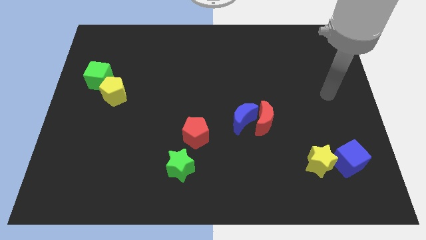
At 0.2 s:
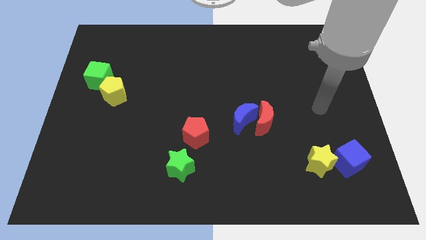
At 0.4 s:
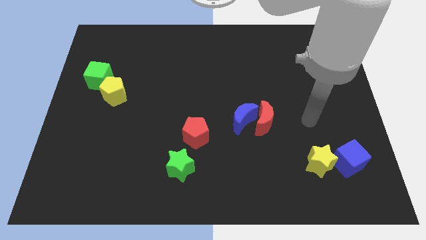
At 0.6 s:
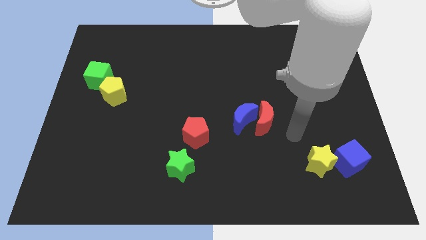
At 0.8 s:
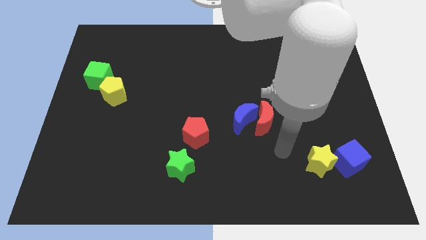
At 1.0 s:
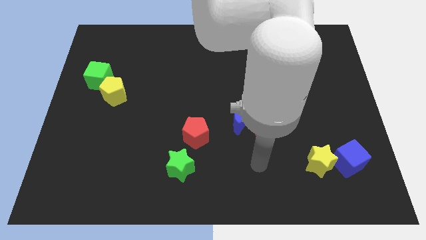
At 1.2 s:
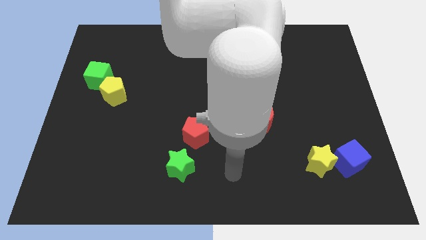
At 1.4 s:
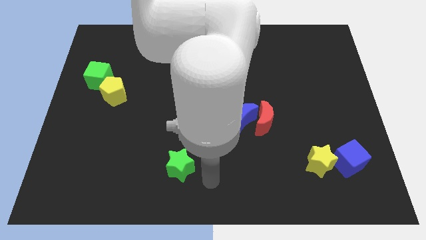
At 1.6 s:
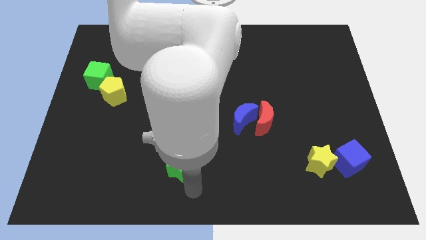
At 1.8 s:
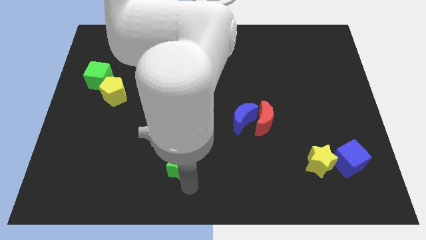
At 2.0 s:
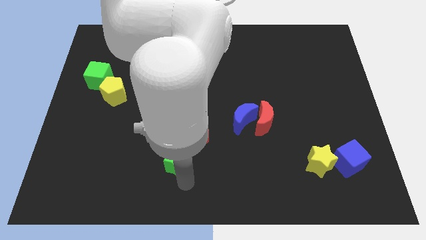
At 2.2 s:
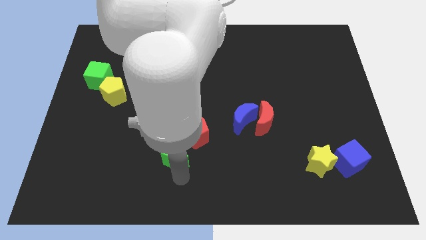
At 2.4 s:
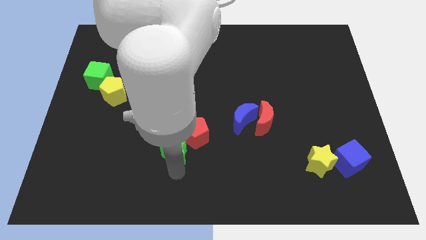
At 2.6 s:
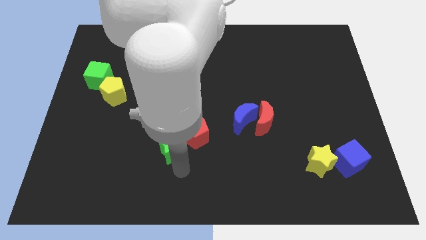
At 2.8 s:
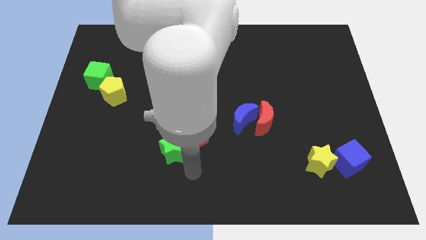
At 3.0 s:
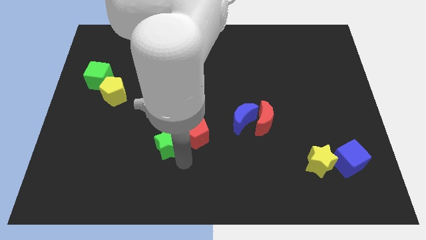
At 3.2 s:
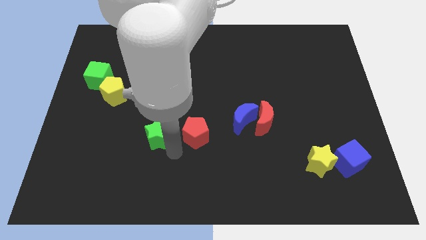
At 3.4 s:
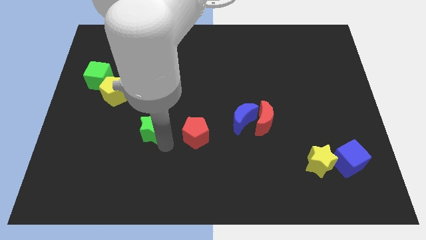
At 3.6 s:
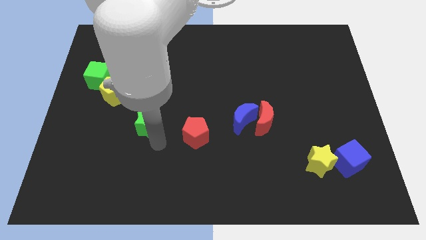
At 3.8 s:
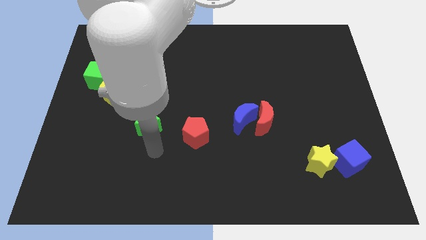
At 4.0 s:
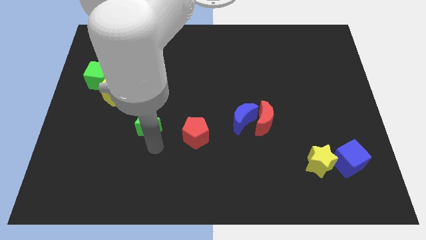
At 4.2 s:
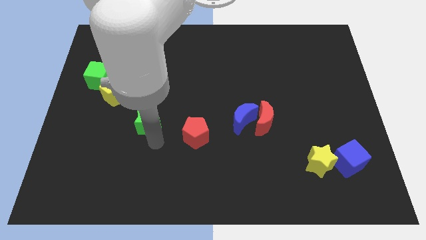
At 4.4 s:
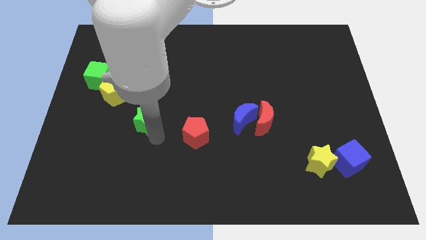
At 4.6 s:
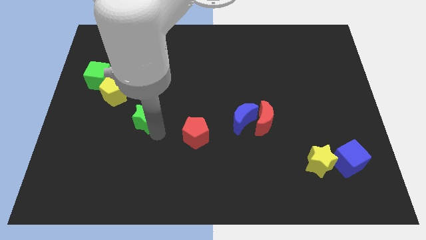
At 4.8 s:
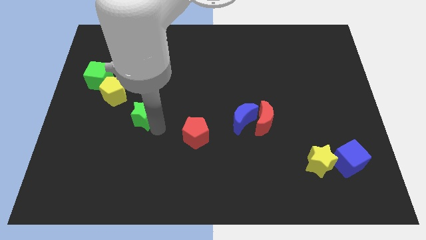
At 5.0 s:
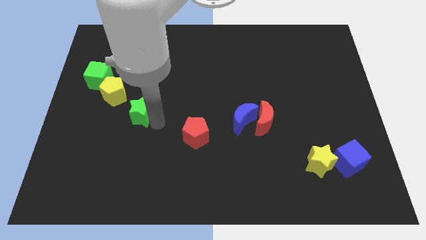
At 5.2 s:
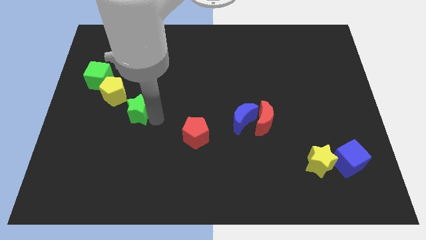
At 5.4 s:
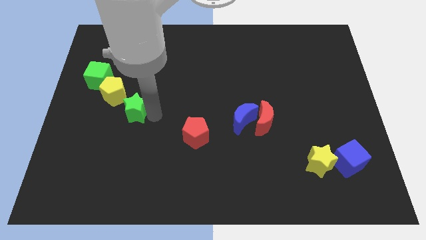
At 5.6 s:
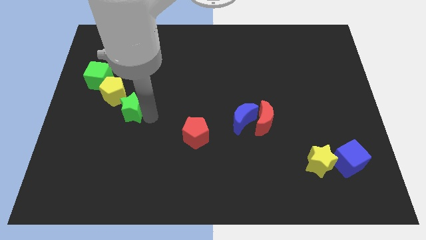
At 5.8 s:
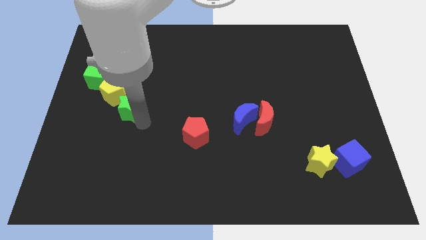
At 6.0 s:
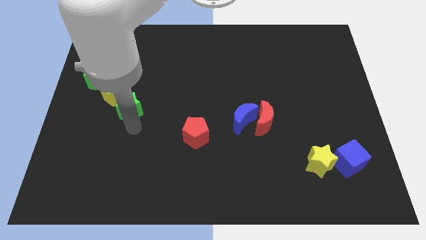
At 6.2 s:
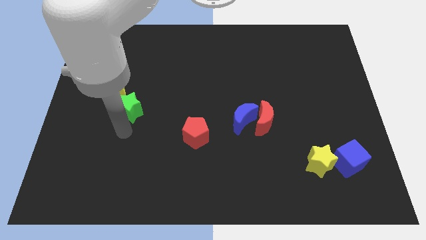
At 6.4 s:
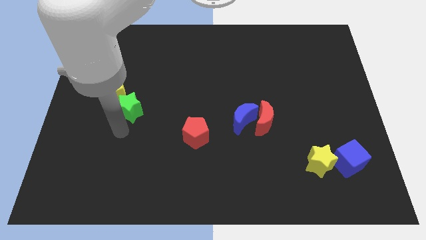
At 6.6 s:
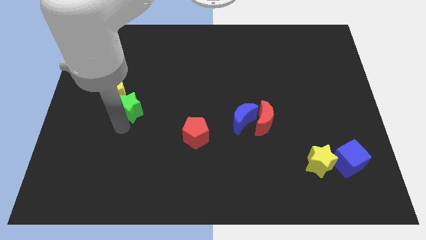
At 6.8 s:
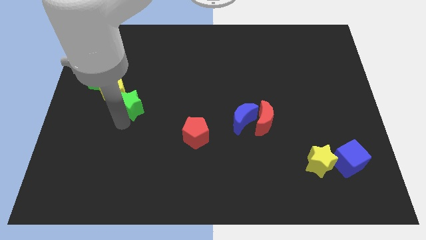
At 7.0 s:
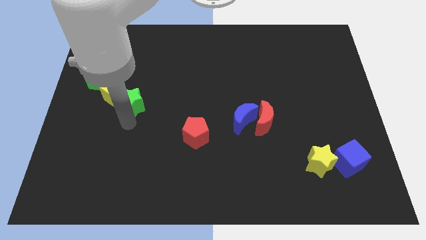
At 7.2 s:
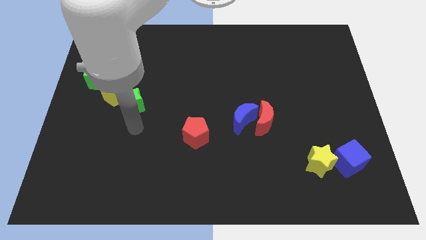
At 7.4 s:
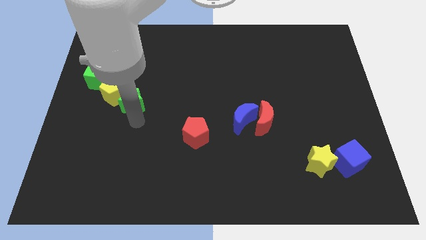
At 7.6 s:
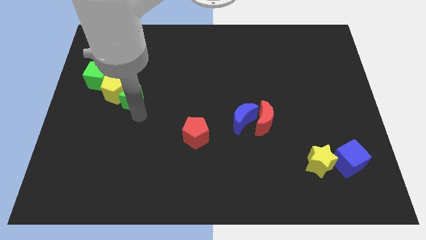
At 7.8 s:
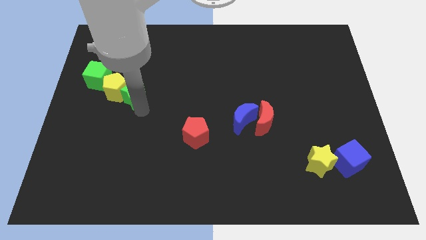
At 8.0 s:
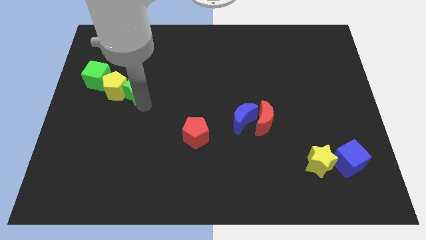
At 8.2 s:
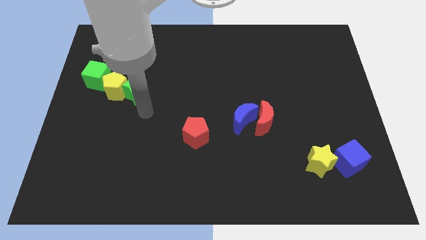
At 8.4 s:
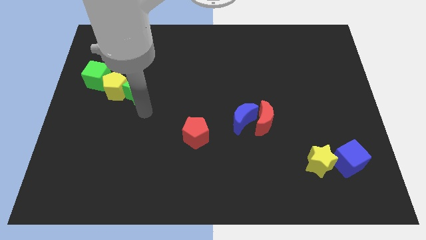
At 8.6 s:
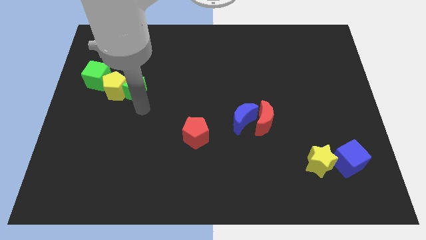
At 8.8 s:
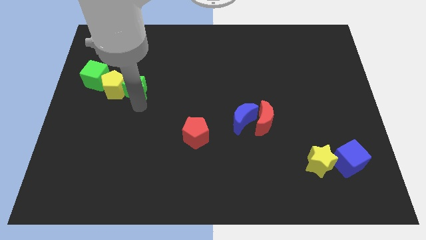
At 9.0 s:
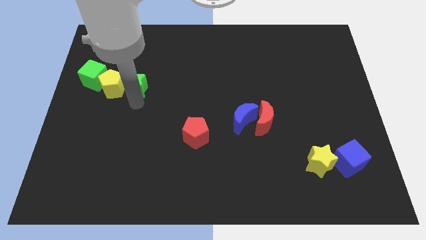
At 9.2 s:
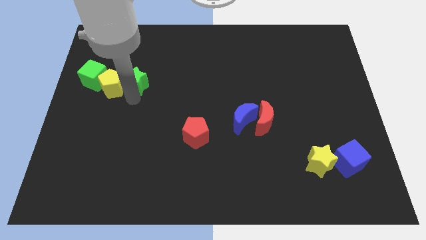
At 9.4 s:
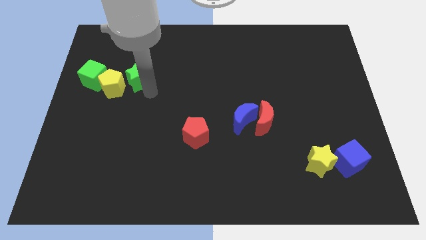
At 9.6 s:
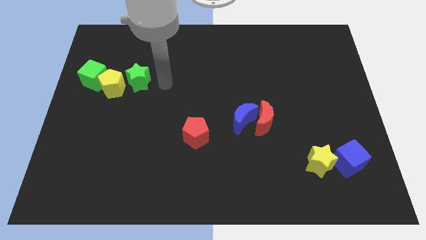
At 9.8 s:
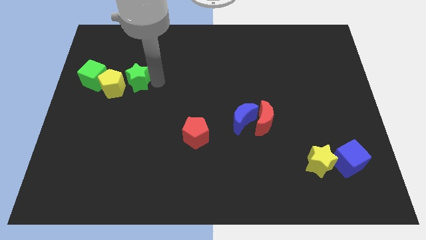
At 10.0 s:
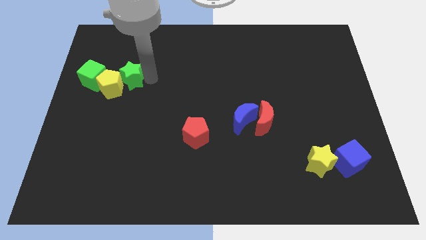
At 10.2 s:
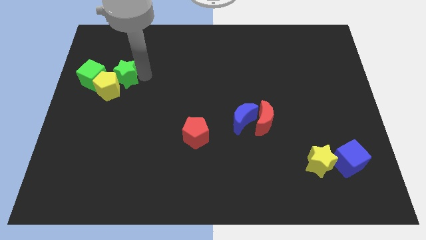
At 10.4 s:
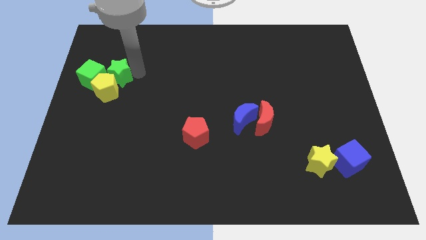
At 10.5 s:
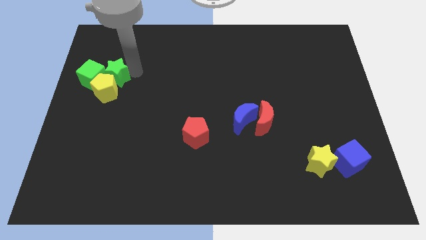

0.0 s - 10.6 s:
put the green star towards the green cube

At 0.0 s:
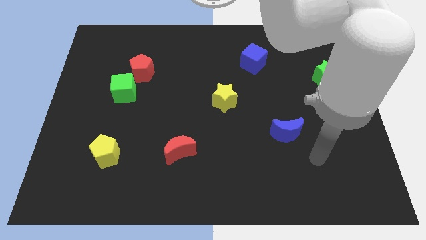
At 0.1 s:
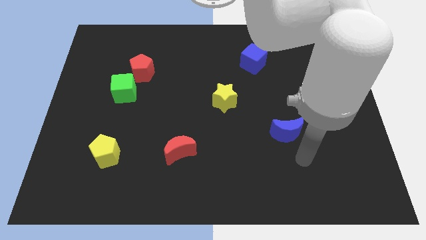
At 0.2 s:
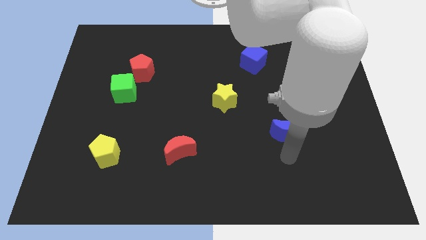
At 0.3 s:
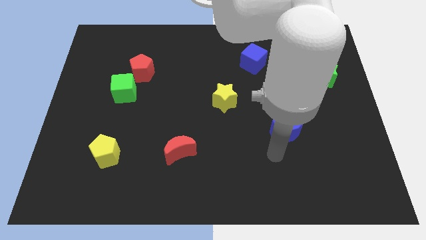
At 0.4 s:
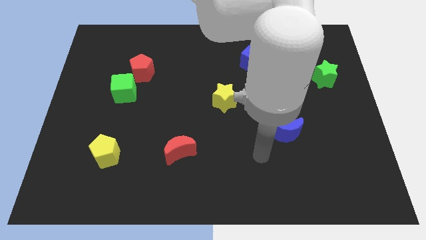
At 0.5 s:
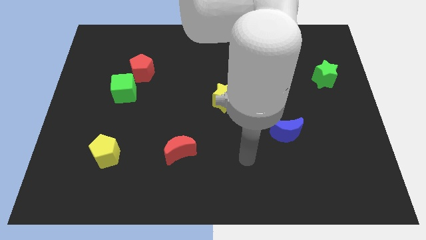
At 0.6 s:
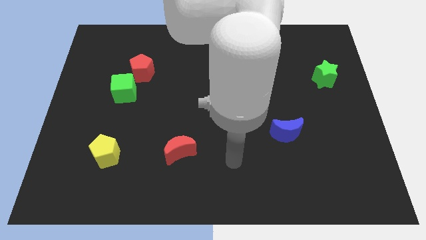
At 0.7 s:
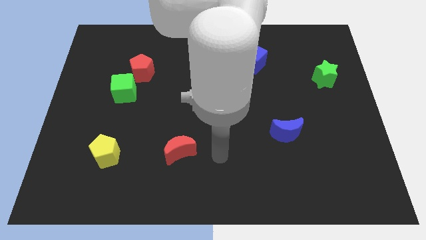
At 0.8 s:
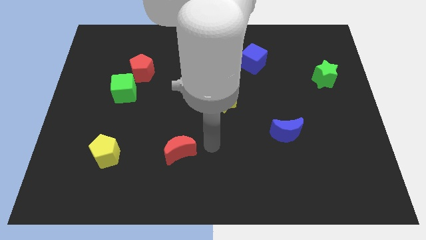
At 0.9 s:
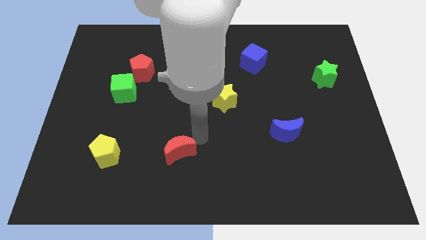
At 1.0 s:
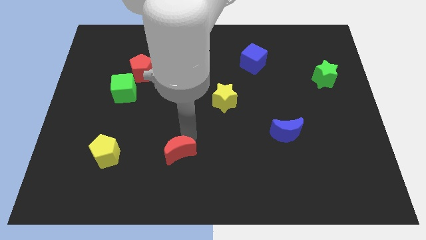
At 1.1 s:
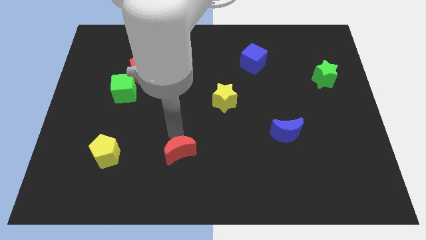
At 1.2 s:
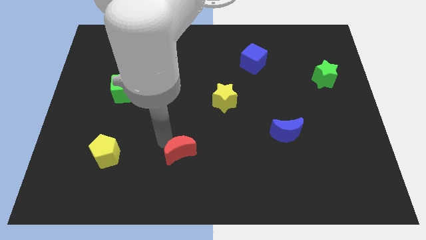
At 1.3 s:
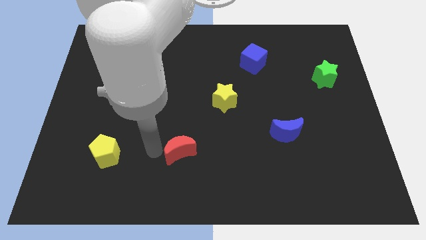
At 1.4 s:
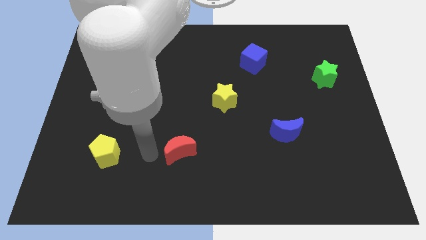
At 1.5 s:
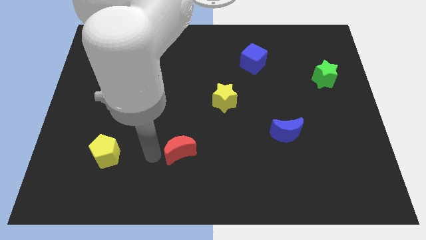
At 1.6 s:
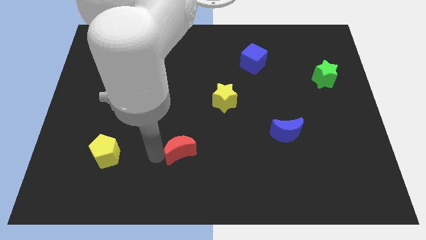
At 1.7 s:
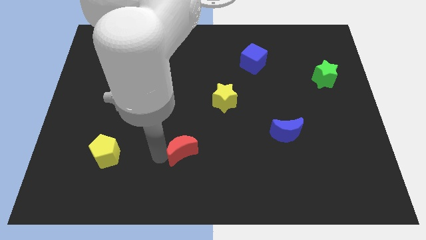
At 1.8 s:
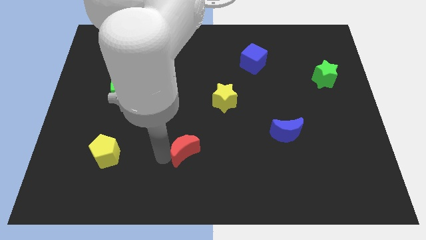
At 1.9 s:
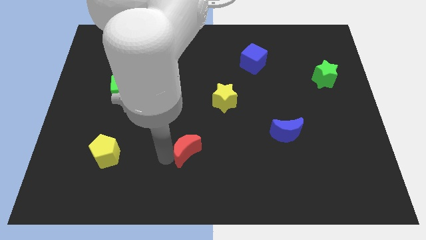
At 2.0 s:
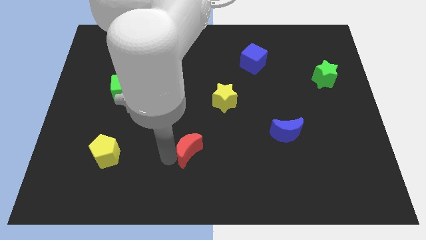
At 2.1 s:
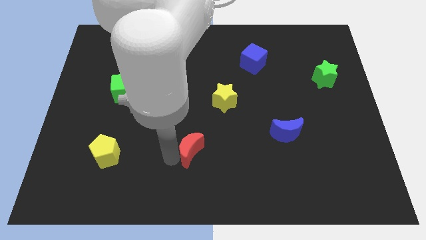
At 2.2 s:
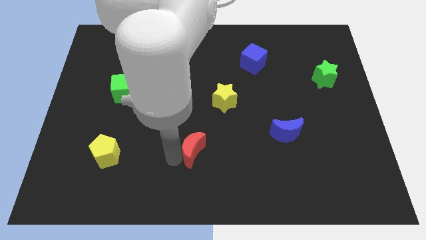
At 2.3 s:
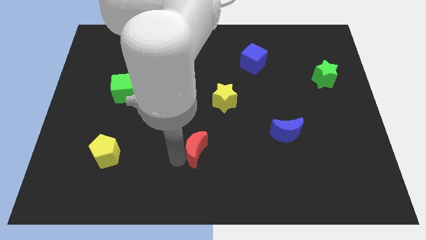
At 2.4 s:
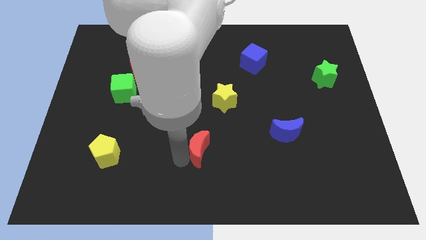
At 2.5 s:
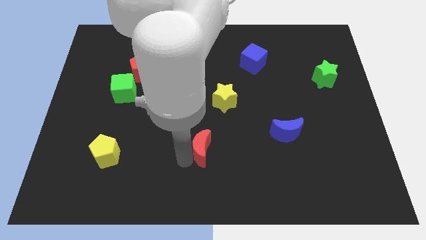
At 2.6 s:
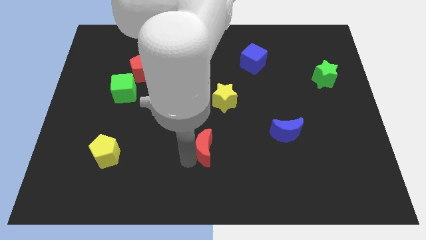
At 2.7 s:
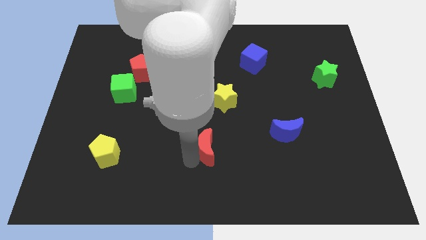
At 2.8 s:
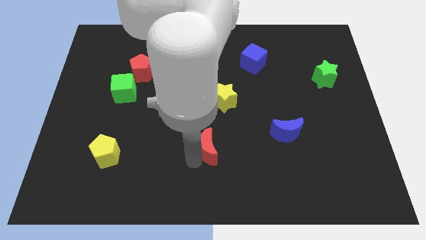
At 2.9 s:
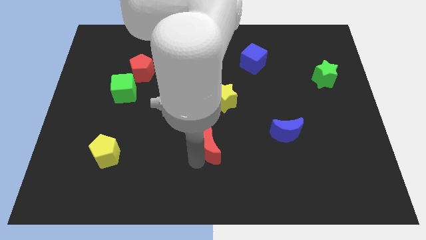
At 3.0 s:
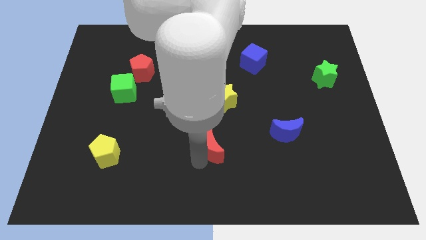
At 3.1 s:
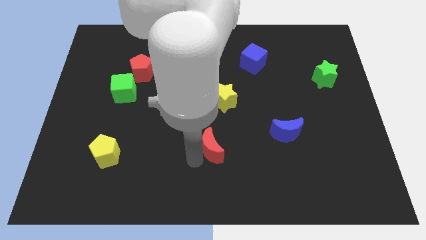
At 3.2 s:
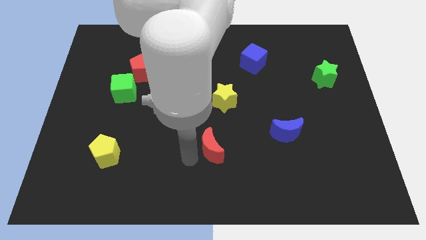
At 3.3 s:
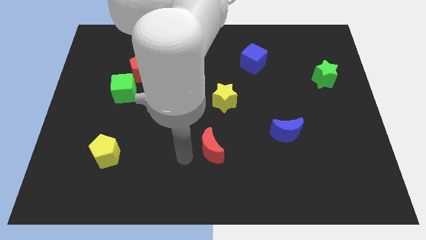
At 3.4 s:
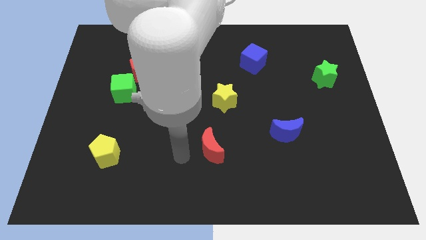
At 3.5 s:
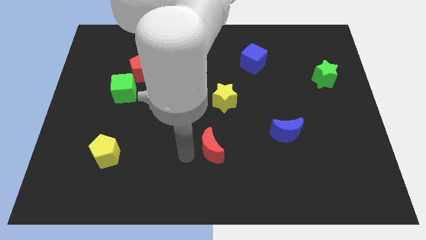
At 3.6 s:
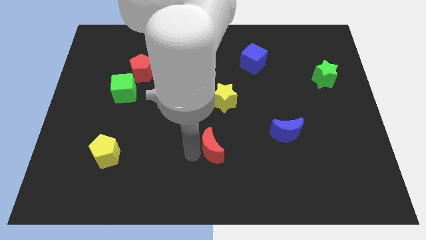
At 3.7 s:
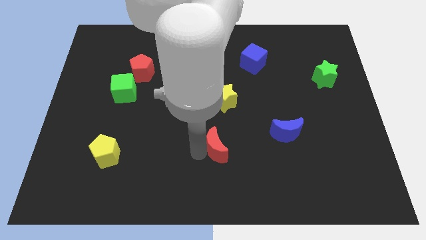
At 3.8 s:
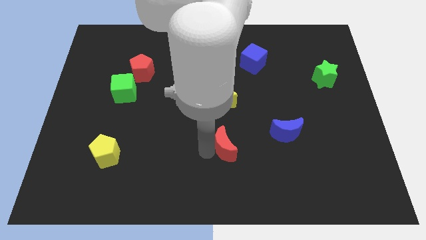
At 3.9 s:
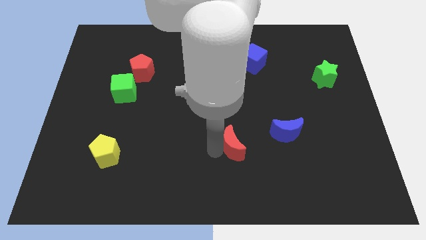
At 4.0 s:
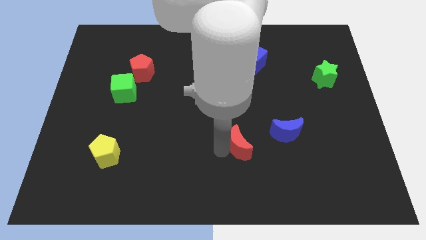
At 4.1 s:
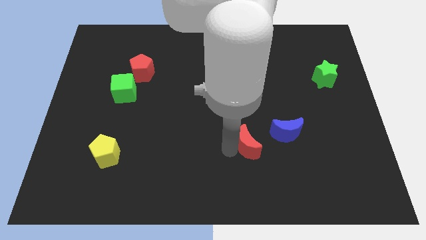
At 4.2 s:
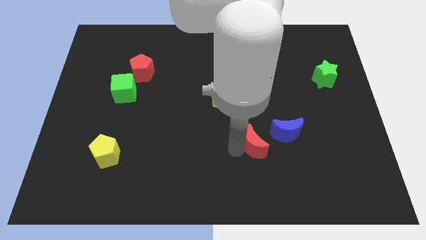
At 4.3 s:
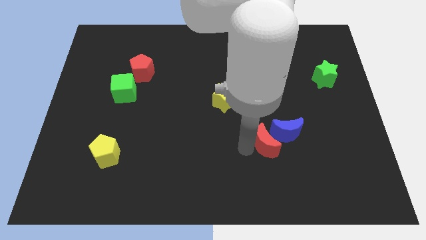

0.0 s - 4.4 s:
move the red moon to the blue moon
